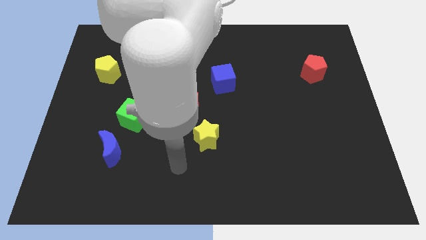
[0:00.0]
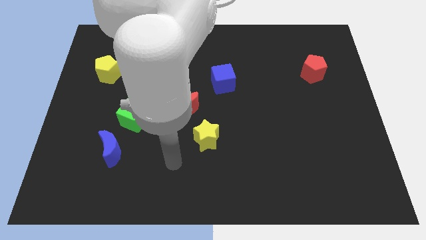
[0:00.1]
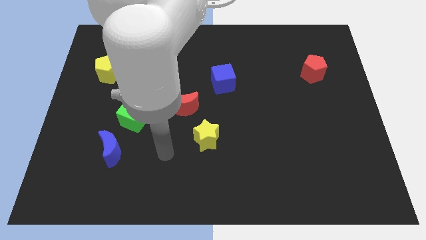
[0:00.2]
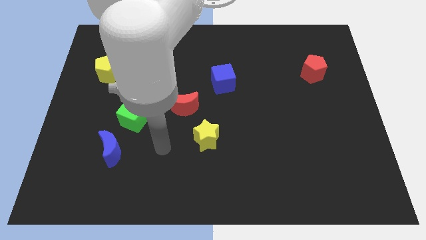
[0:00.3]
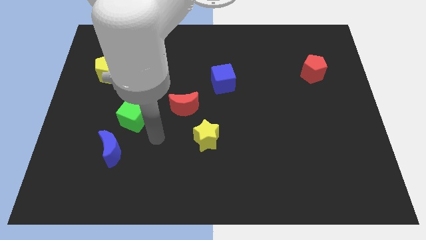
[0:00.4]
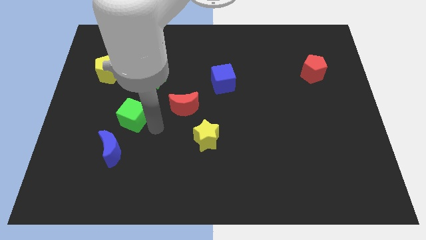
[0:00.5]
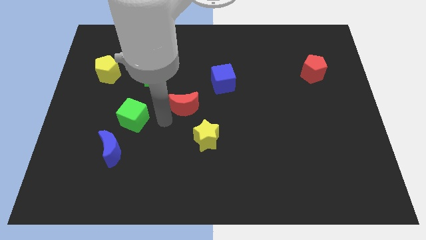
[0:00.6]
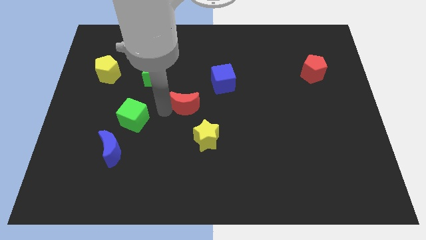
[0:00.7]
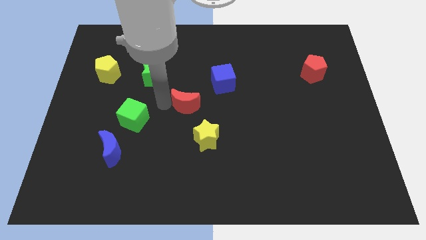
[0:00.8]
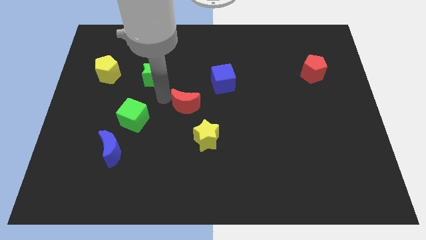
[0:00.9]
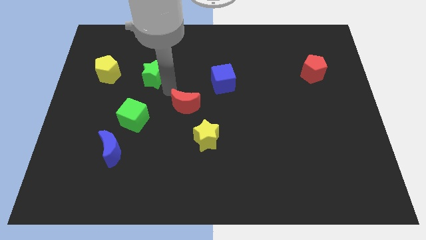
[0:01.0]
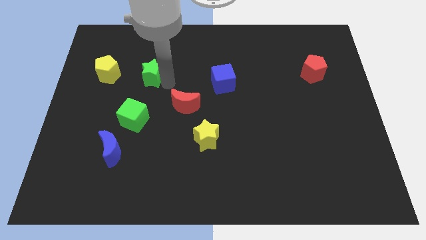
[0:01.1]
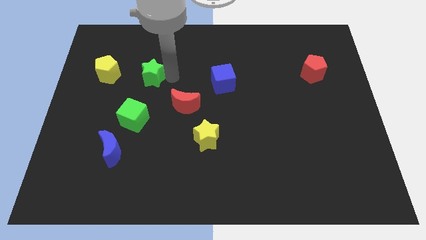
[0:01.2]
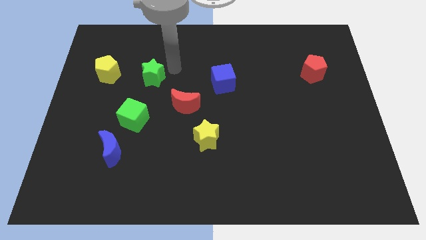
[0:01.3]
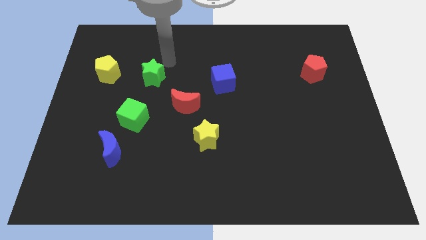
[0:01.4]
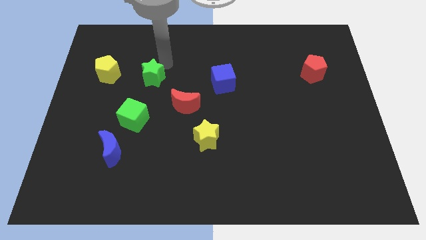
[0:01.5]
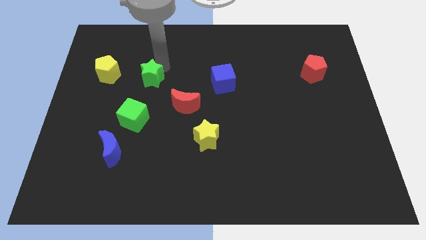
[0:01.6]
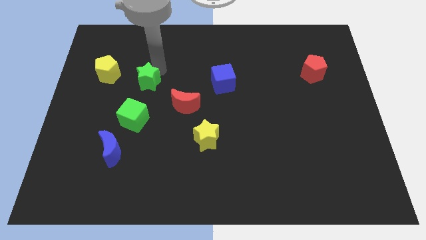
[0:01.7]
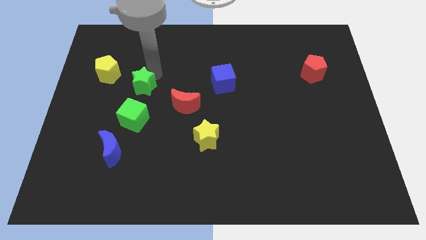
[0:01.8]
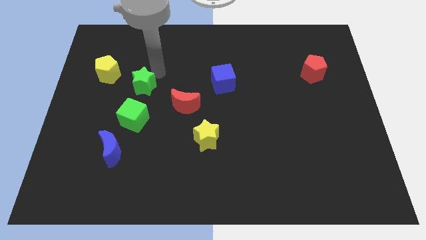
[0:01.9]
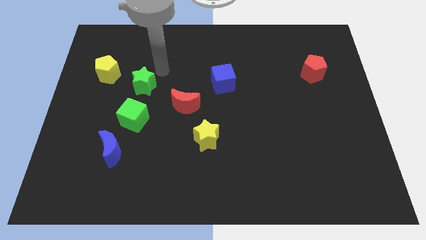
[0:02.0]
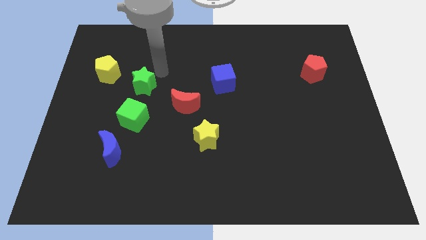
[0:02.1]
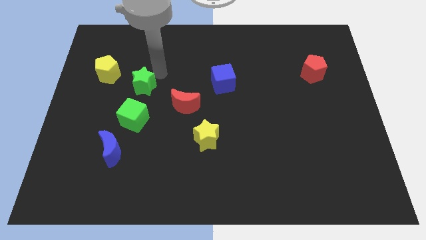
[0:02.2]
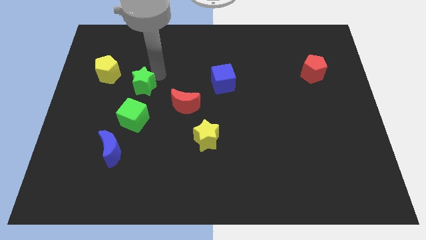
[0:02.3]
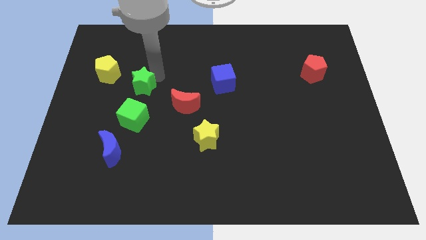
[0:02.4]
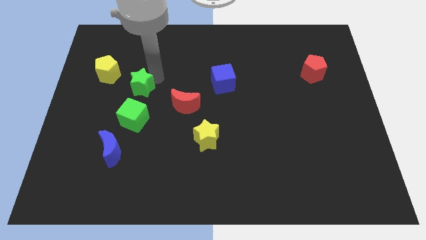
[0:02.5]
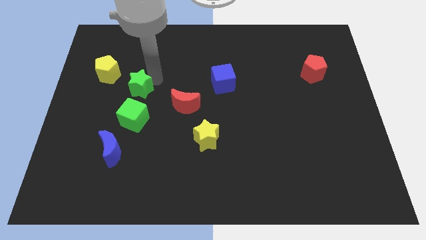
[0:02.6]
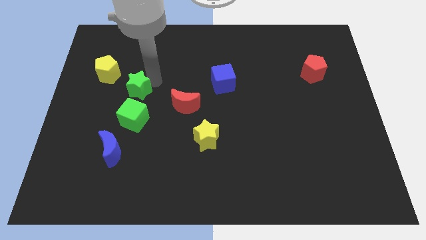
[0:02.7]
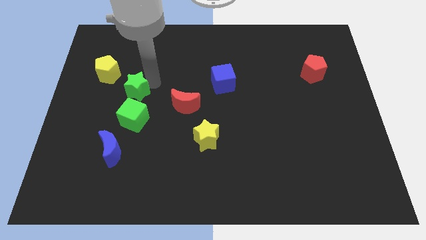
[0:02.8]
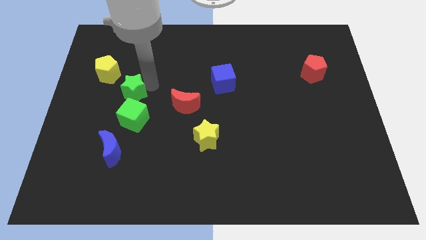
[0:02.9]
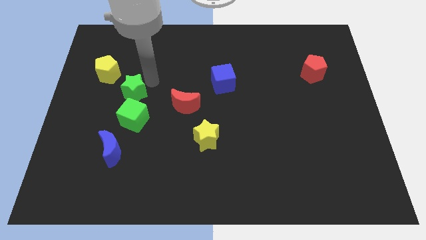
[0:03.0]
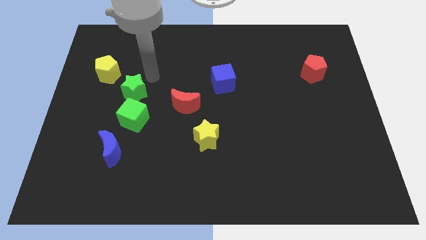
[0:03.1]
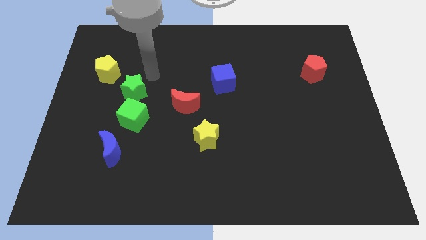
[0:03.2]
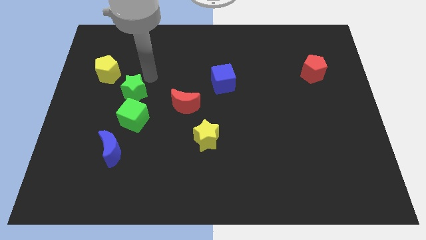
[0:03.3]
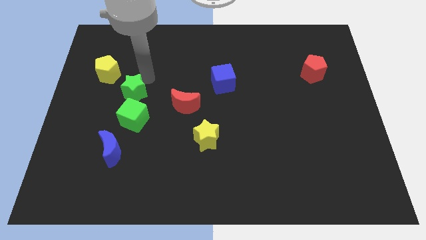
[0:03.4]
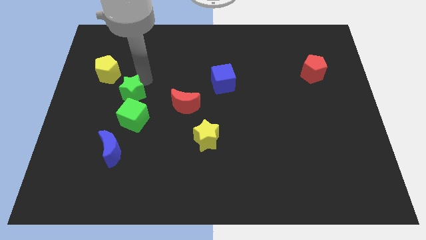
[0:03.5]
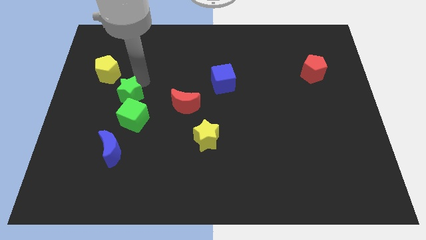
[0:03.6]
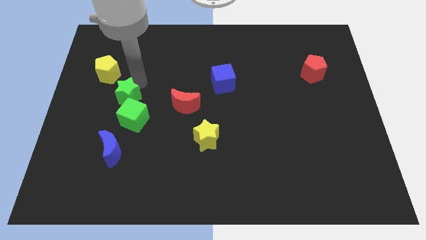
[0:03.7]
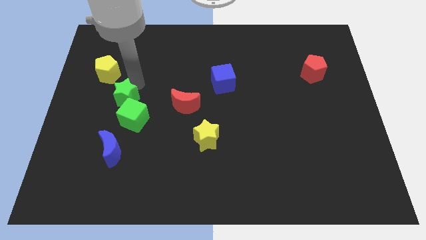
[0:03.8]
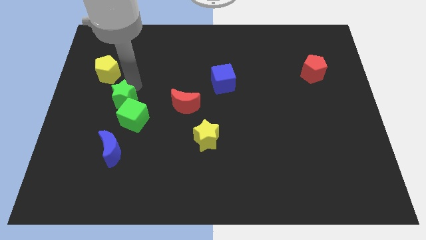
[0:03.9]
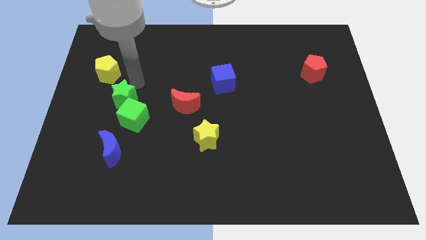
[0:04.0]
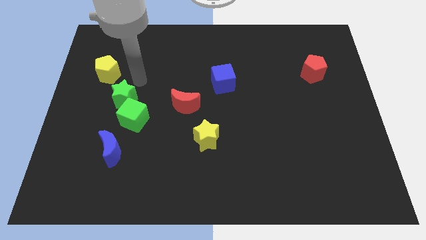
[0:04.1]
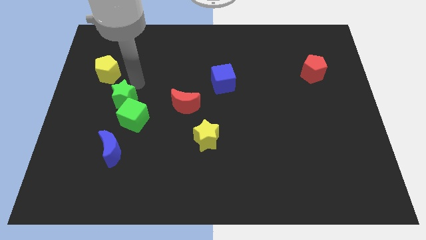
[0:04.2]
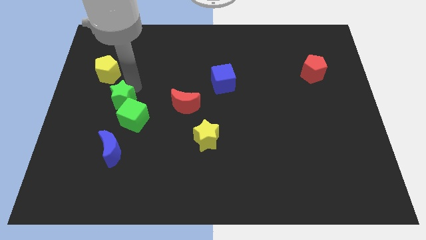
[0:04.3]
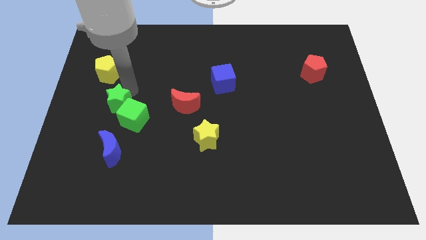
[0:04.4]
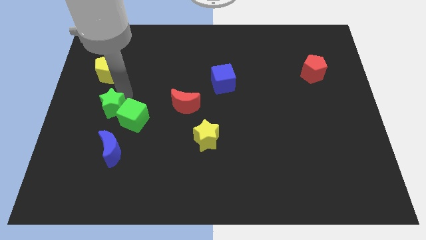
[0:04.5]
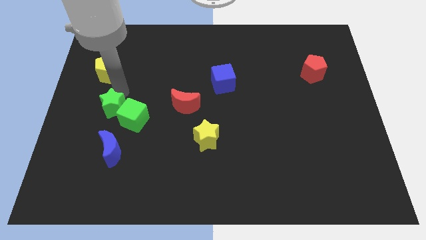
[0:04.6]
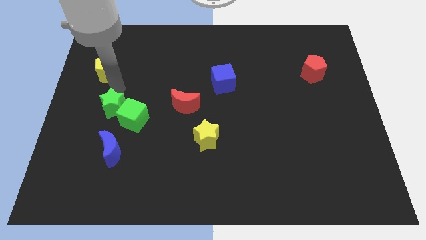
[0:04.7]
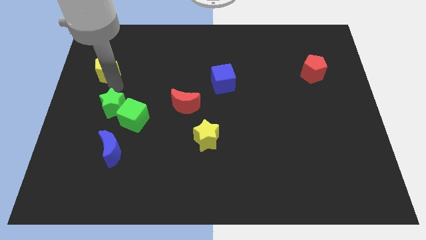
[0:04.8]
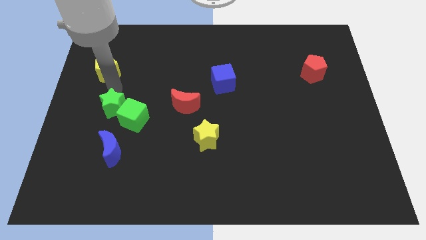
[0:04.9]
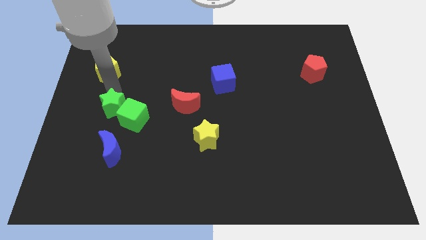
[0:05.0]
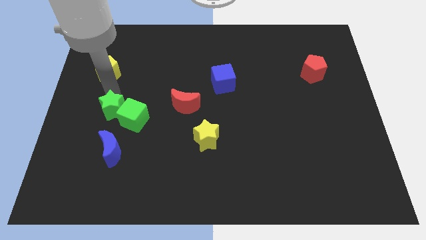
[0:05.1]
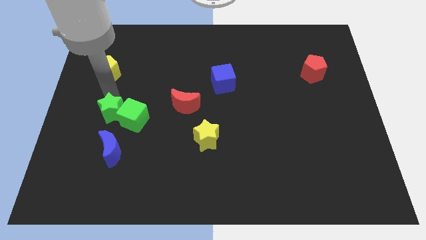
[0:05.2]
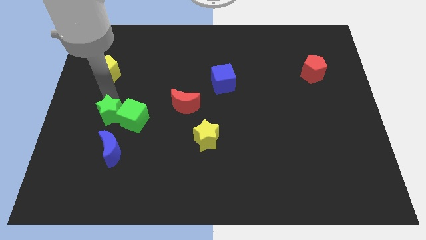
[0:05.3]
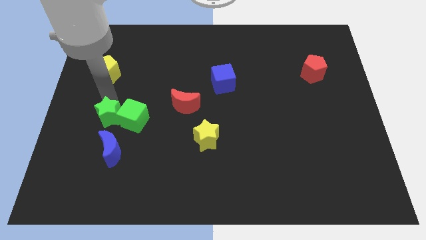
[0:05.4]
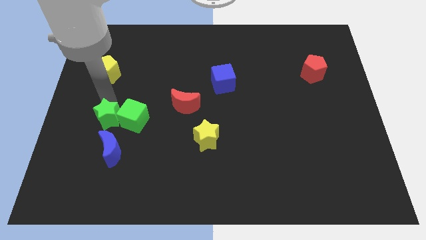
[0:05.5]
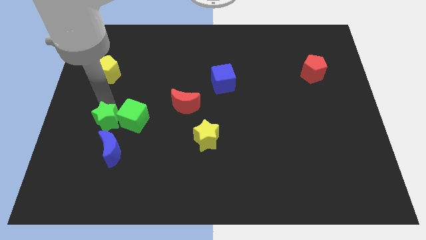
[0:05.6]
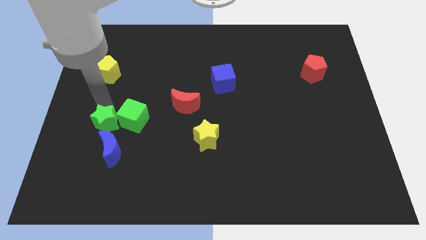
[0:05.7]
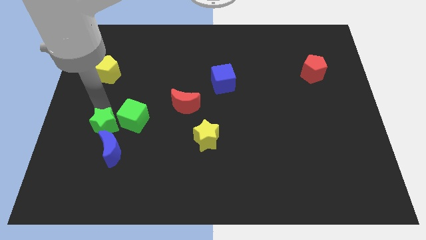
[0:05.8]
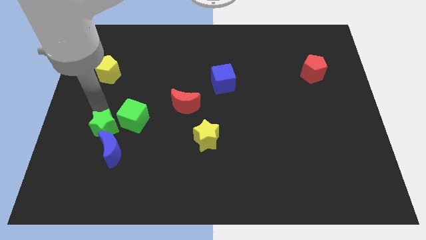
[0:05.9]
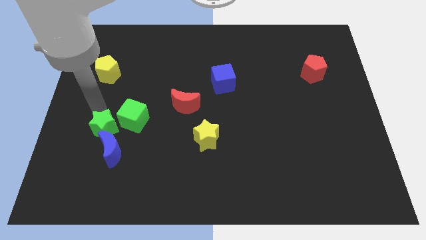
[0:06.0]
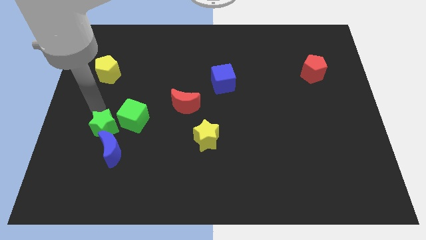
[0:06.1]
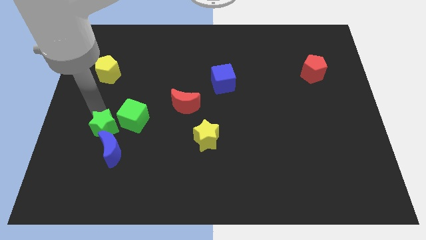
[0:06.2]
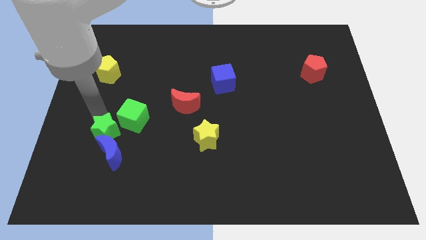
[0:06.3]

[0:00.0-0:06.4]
move the green star close to the blue moon

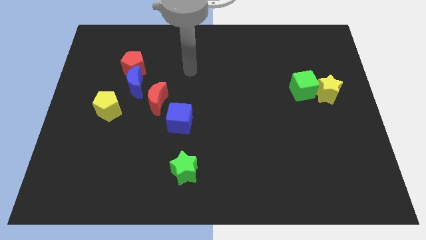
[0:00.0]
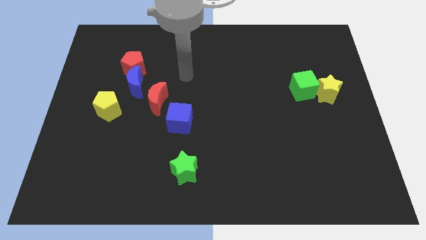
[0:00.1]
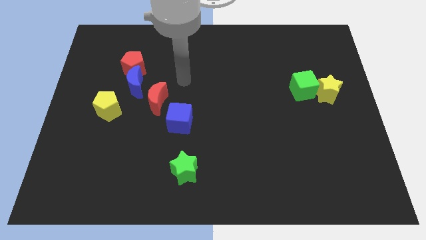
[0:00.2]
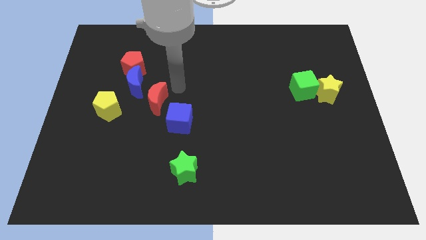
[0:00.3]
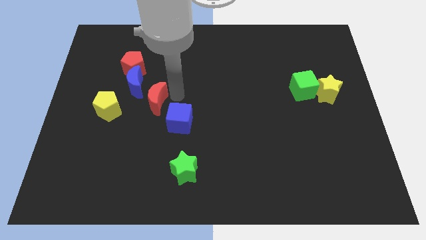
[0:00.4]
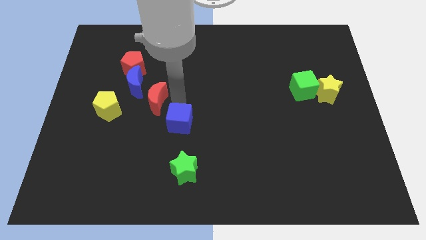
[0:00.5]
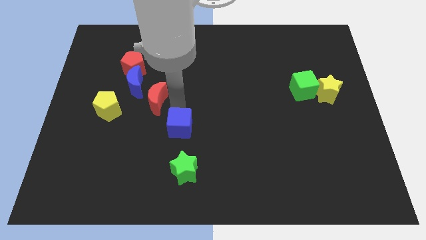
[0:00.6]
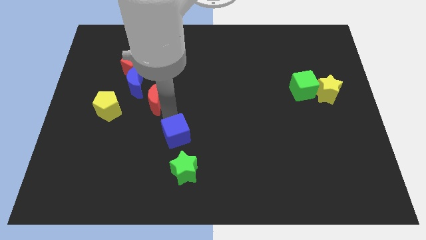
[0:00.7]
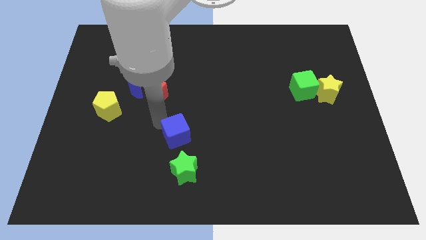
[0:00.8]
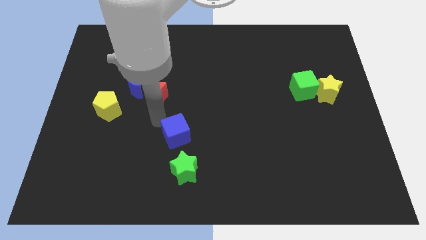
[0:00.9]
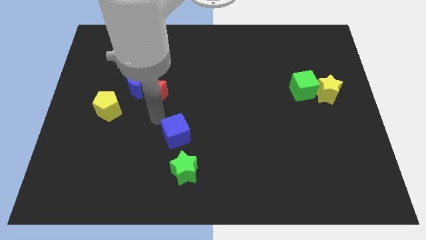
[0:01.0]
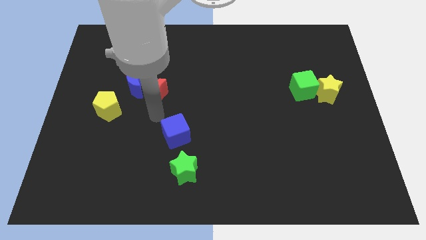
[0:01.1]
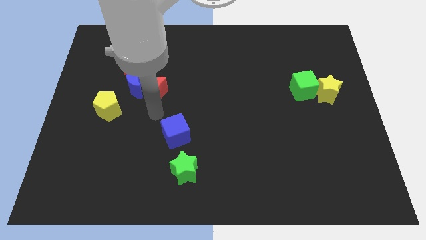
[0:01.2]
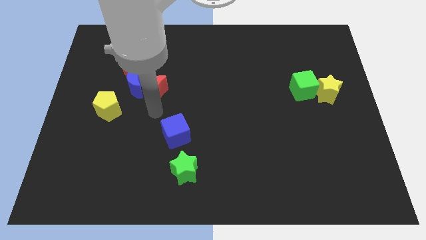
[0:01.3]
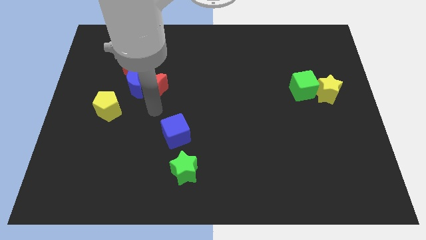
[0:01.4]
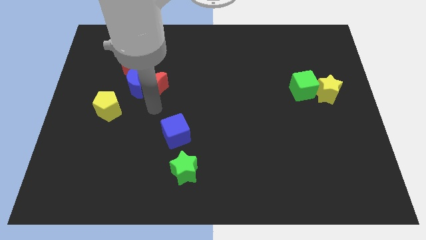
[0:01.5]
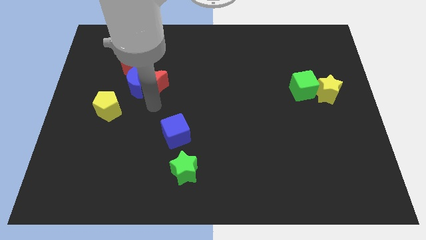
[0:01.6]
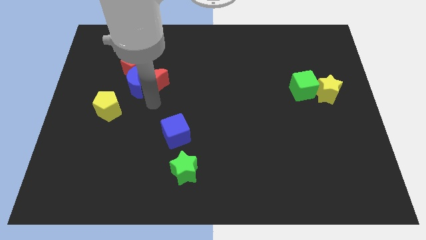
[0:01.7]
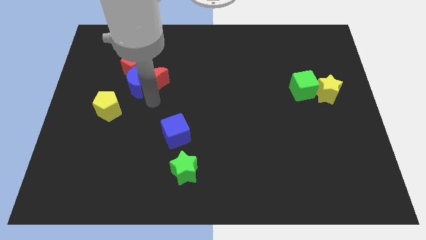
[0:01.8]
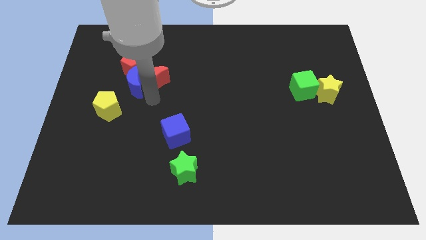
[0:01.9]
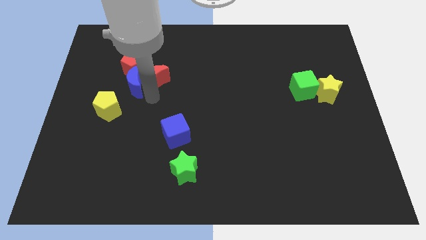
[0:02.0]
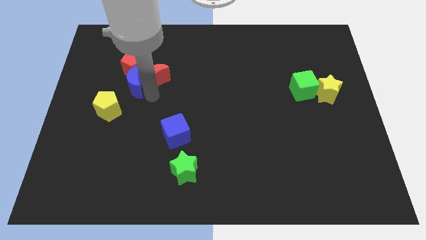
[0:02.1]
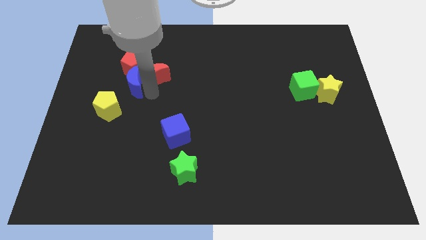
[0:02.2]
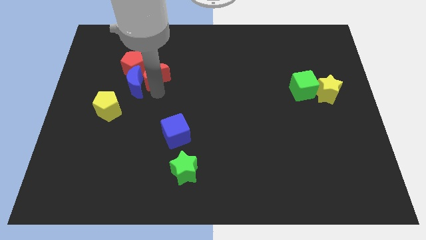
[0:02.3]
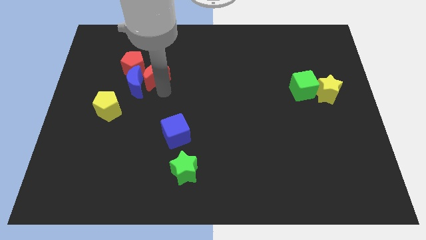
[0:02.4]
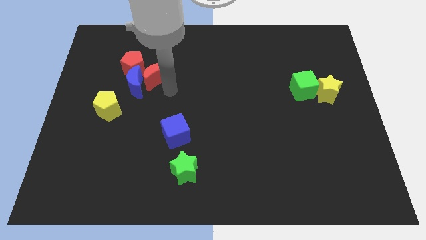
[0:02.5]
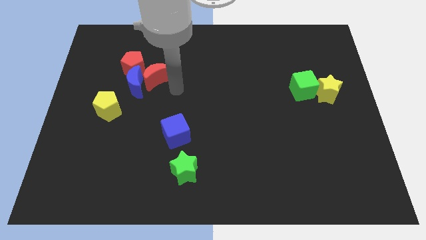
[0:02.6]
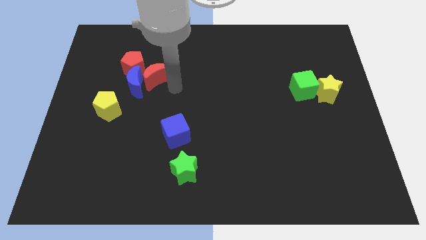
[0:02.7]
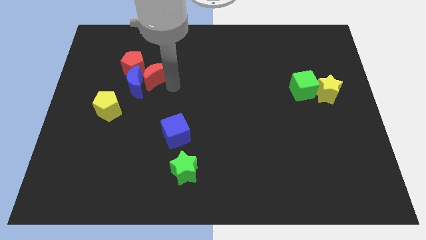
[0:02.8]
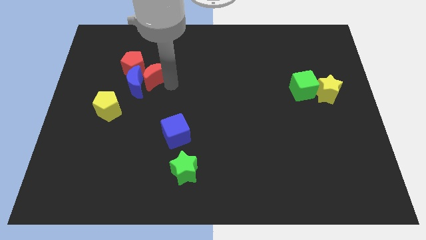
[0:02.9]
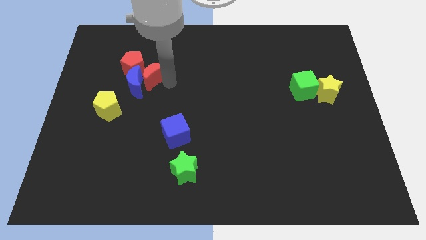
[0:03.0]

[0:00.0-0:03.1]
push the red moon towards the red pentagon
